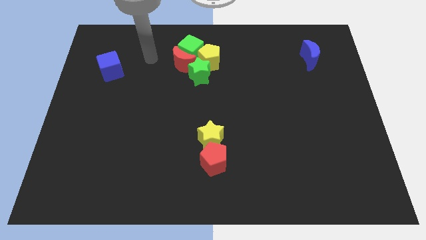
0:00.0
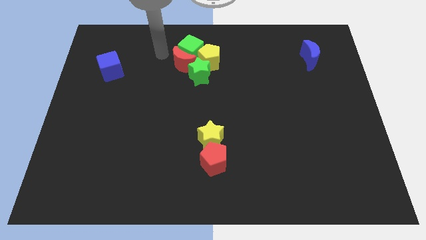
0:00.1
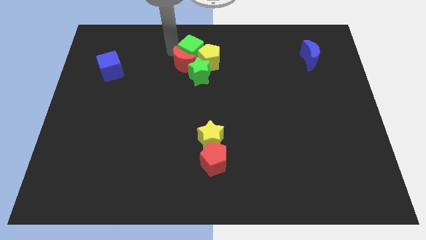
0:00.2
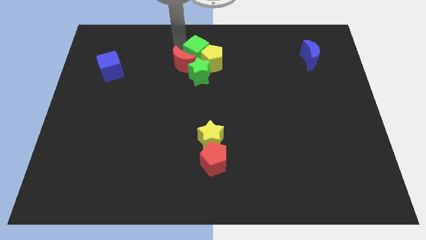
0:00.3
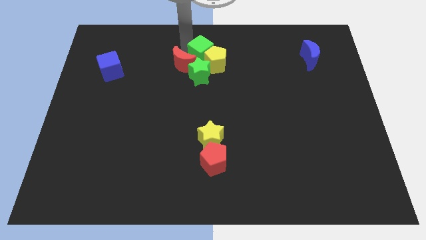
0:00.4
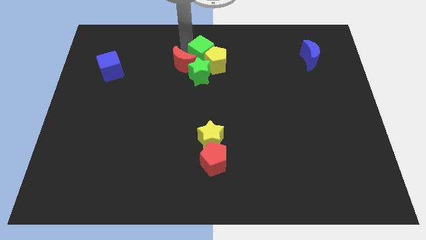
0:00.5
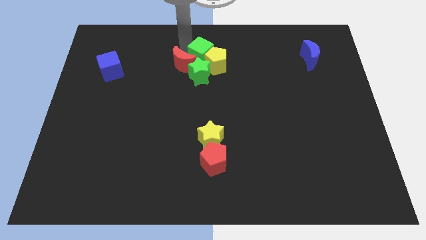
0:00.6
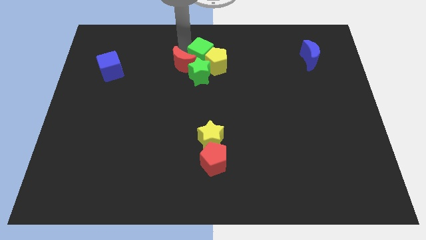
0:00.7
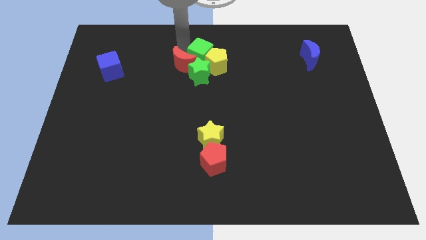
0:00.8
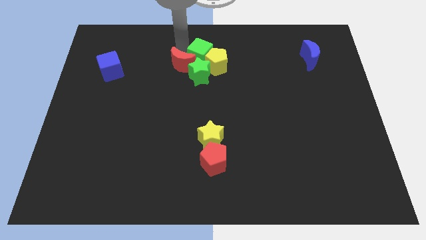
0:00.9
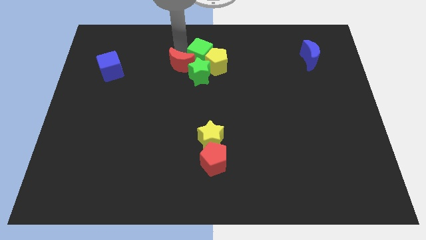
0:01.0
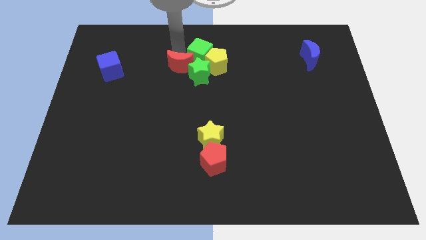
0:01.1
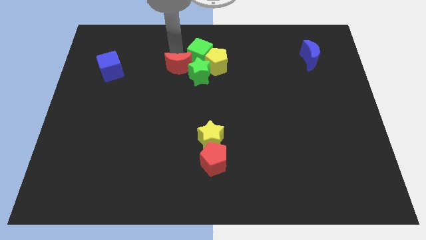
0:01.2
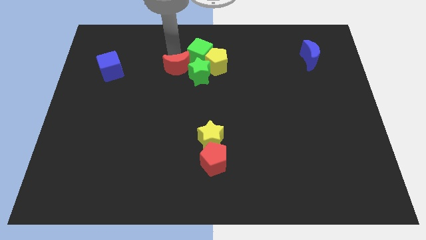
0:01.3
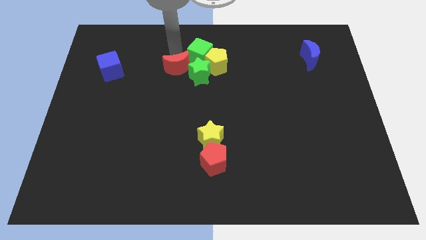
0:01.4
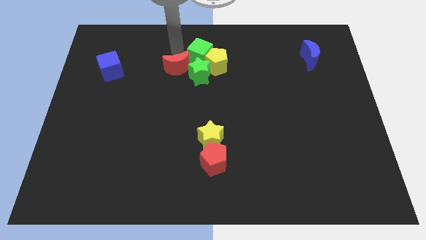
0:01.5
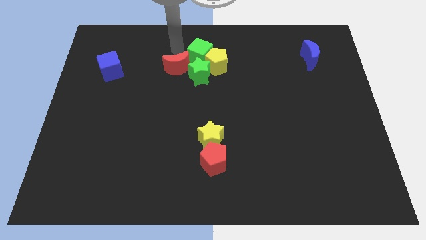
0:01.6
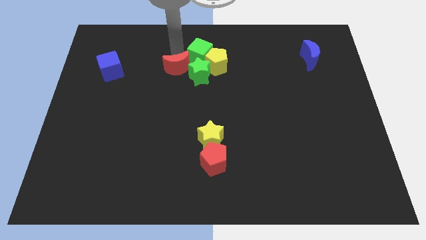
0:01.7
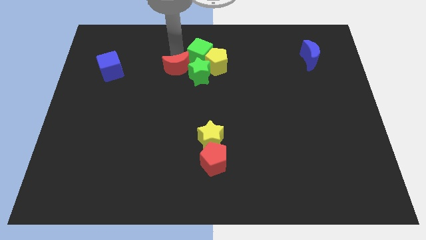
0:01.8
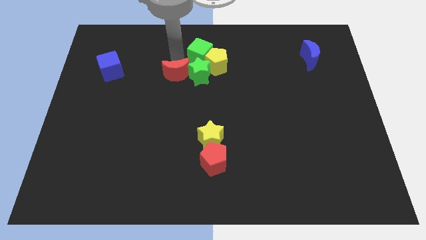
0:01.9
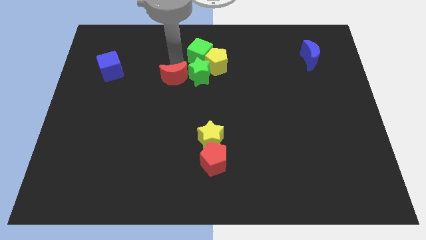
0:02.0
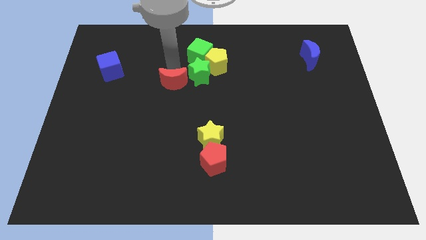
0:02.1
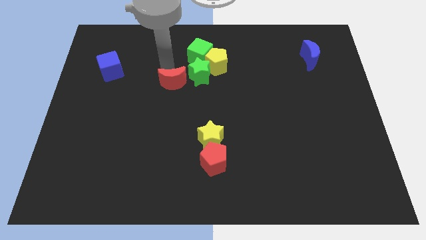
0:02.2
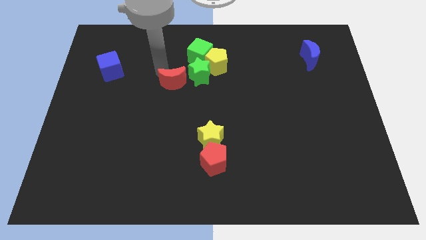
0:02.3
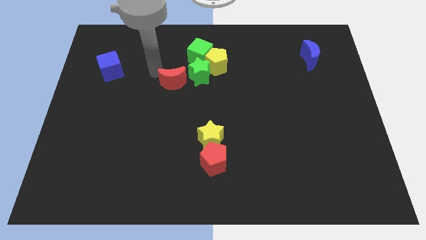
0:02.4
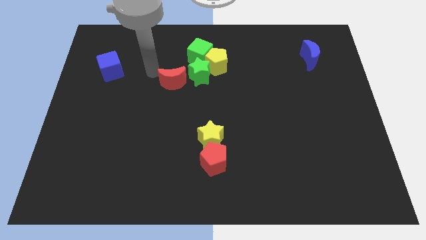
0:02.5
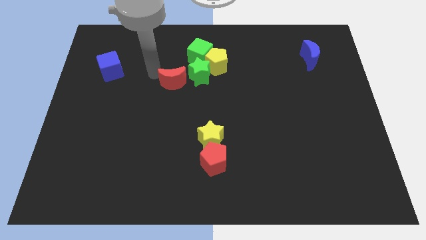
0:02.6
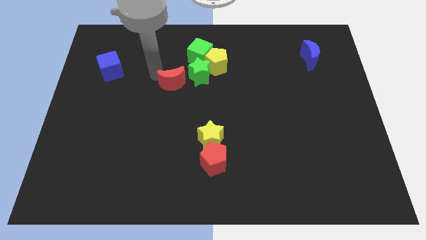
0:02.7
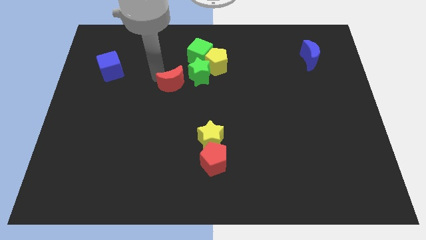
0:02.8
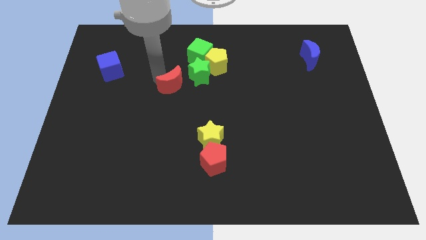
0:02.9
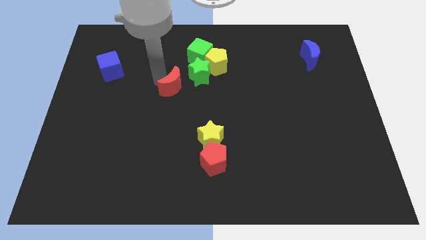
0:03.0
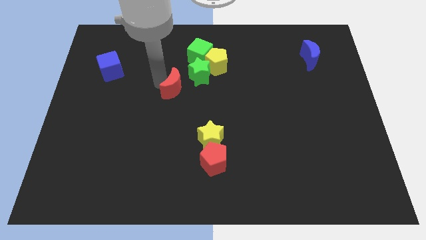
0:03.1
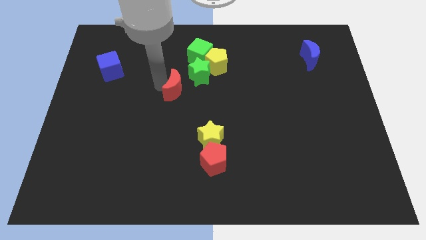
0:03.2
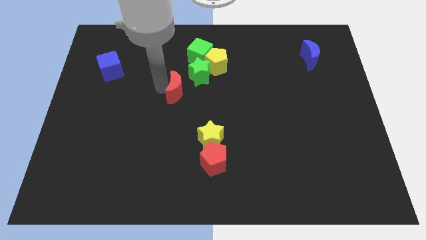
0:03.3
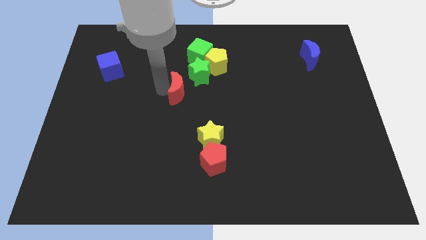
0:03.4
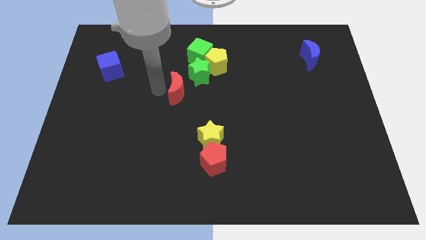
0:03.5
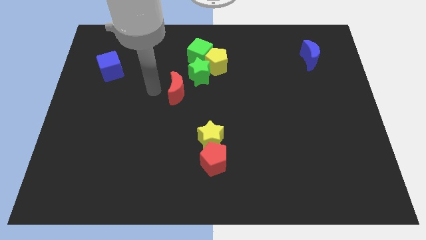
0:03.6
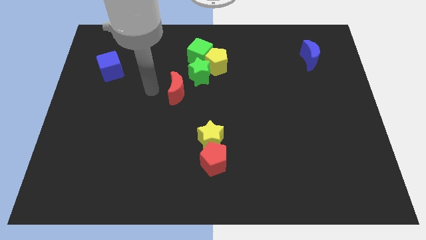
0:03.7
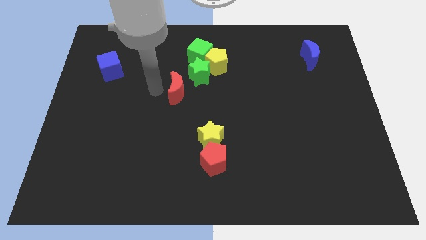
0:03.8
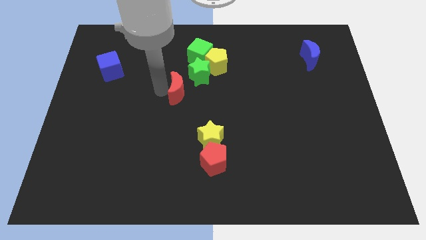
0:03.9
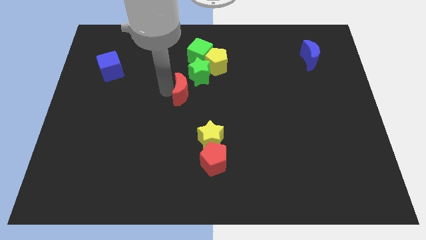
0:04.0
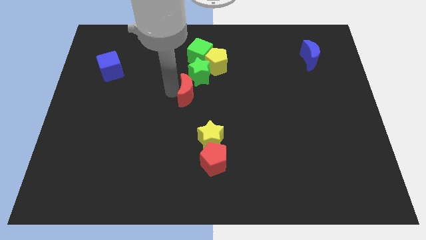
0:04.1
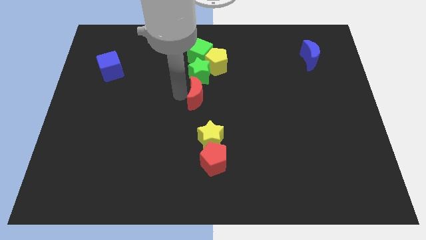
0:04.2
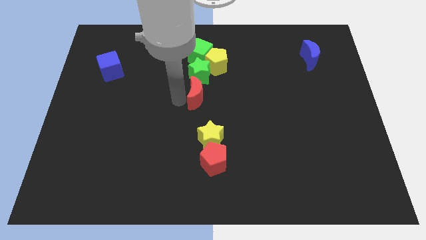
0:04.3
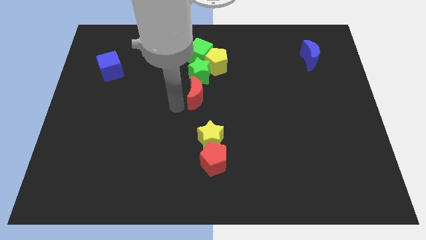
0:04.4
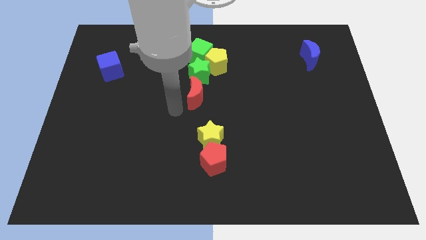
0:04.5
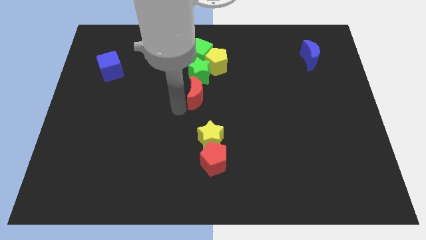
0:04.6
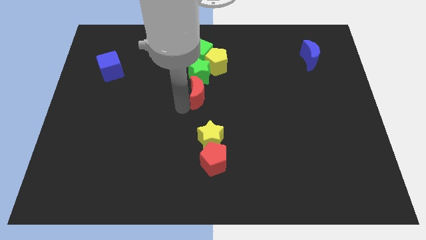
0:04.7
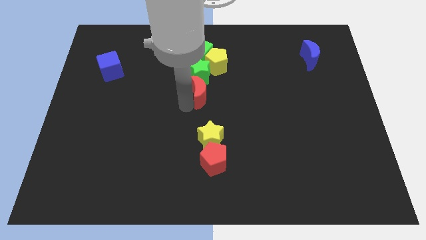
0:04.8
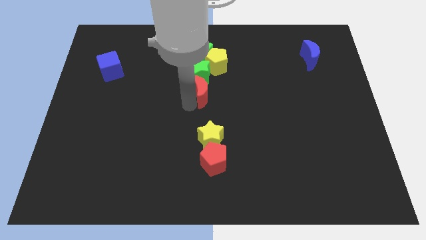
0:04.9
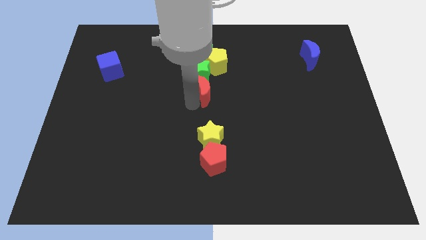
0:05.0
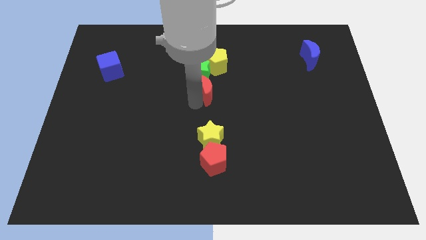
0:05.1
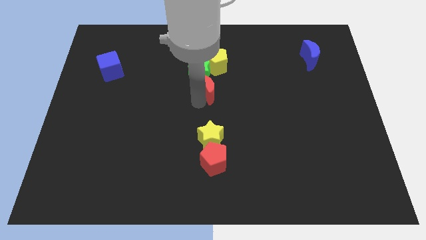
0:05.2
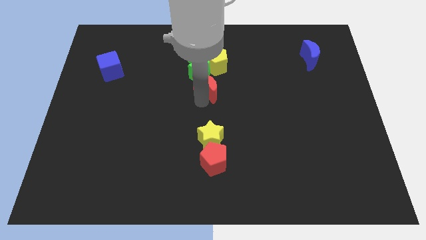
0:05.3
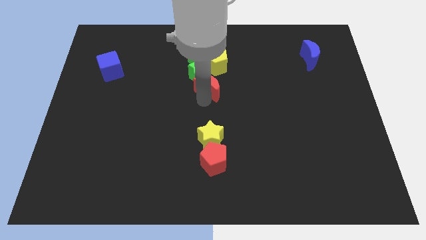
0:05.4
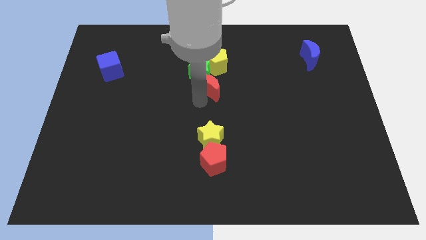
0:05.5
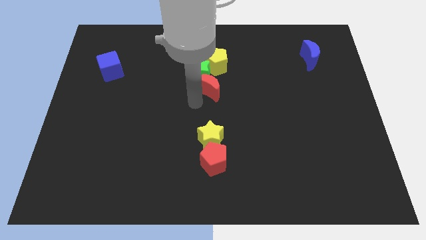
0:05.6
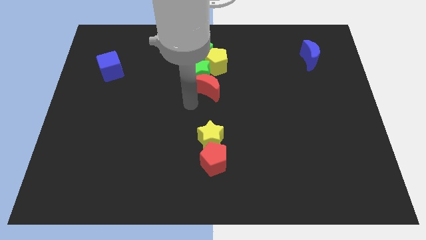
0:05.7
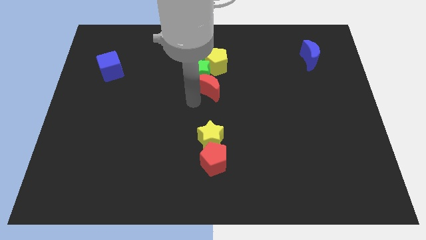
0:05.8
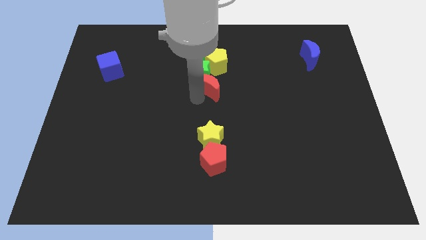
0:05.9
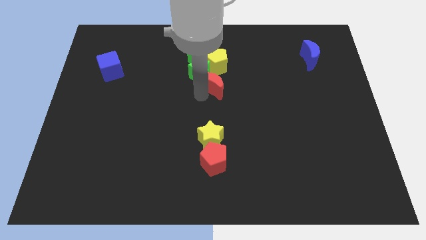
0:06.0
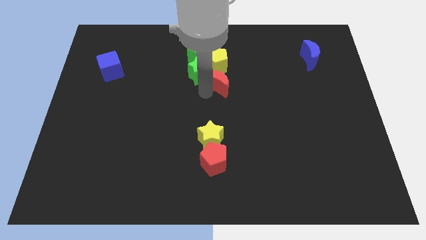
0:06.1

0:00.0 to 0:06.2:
push the red moon right slightly

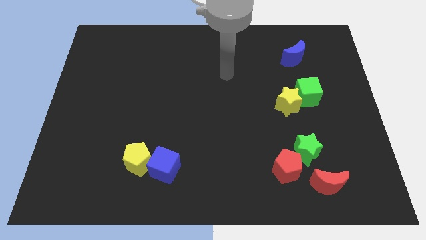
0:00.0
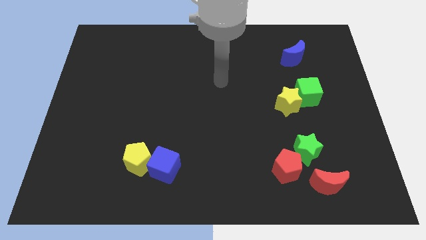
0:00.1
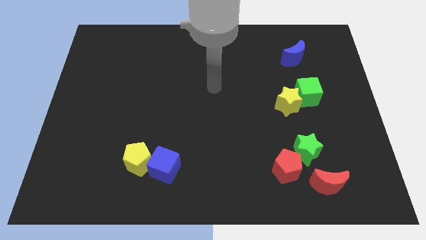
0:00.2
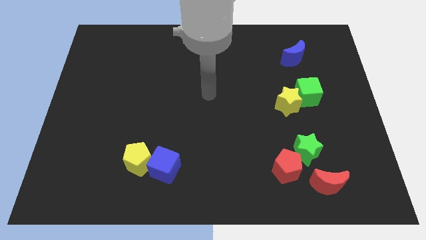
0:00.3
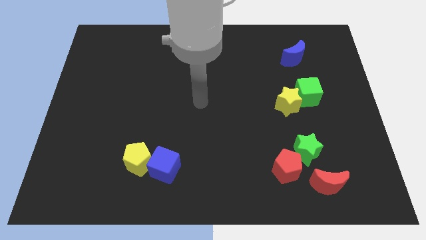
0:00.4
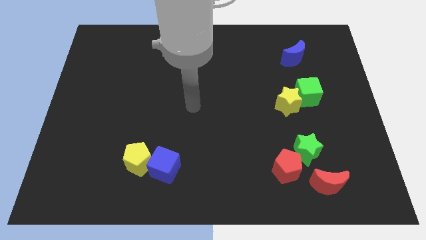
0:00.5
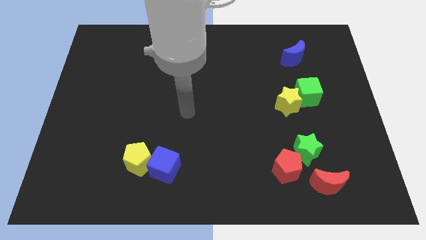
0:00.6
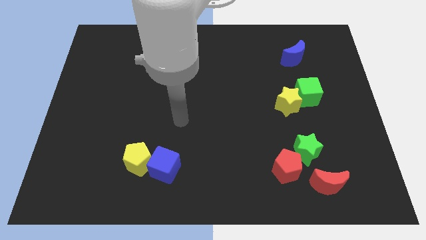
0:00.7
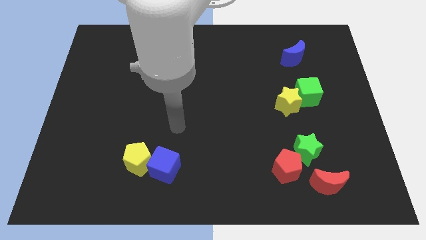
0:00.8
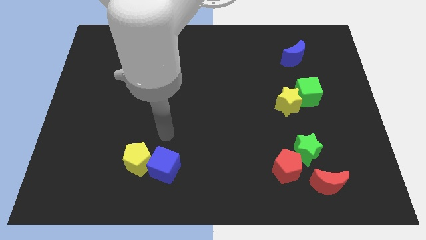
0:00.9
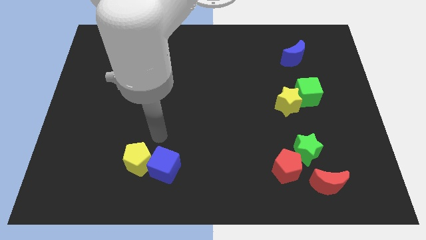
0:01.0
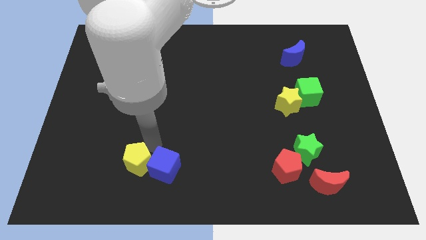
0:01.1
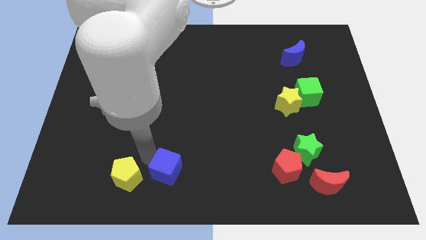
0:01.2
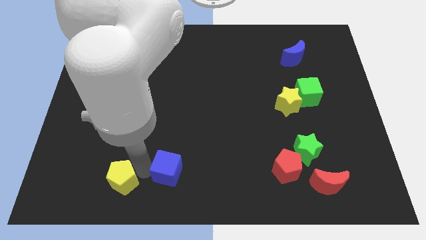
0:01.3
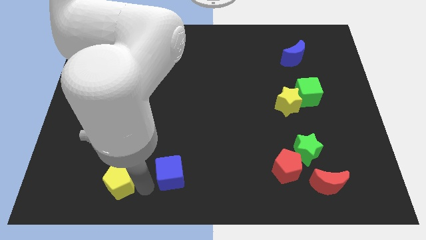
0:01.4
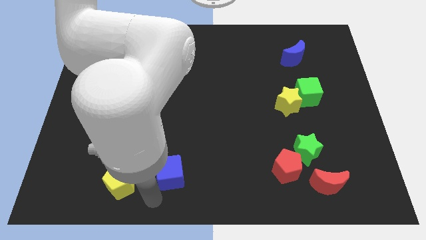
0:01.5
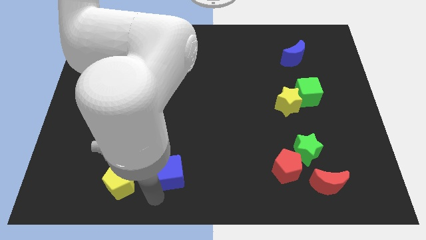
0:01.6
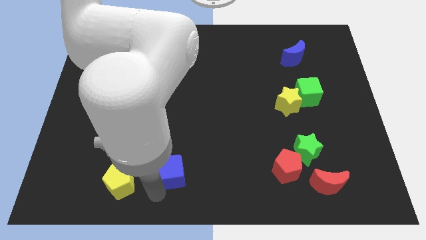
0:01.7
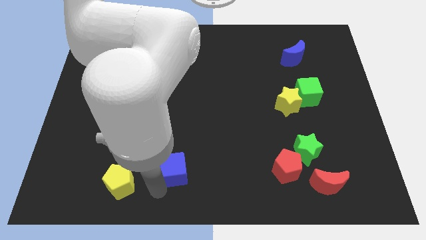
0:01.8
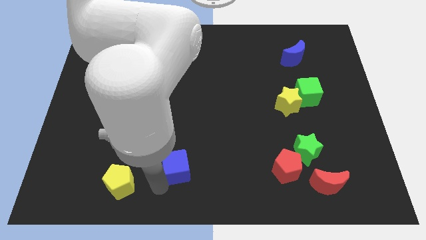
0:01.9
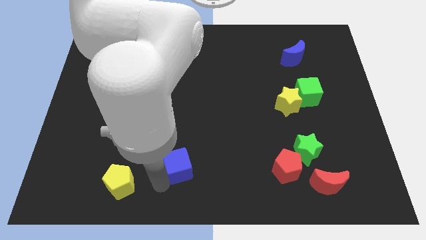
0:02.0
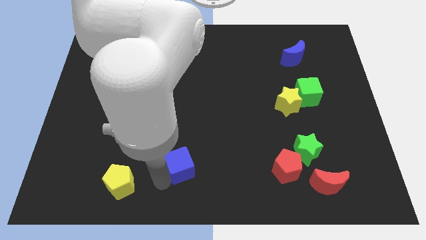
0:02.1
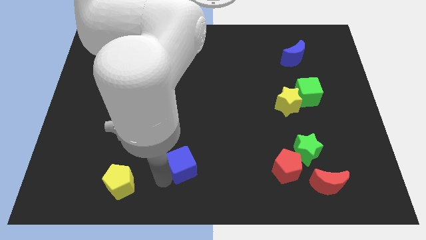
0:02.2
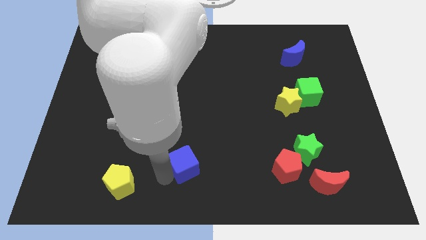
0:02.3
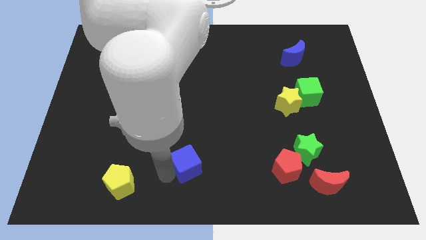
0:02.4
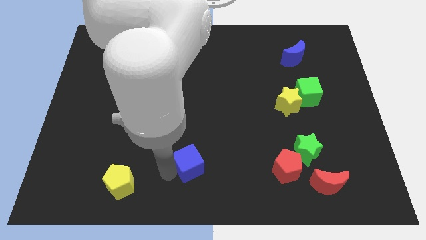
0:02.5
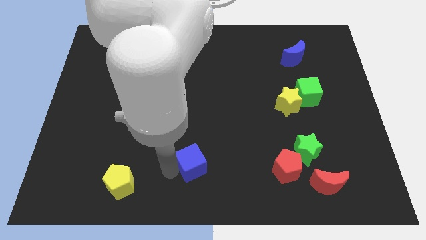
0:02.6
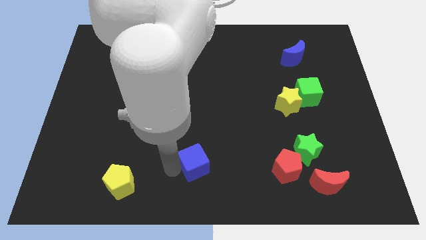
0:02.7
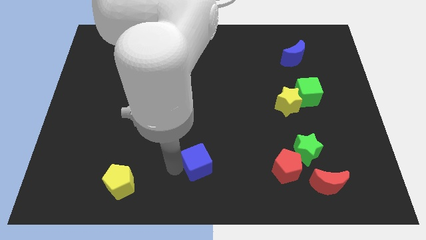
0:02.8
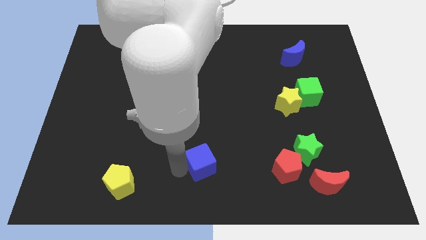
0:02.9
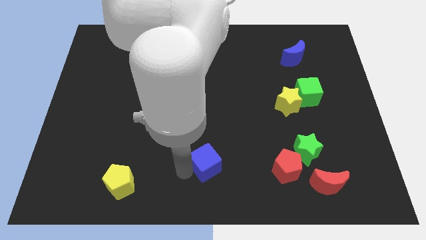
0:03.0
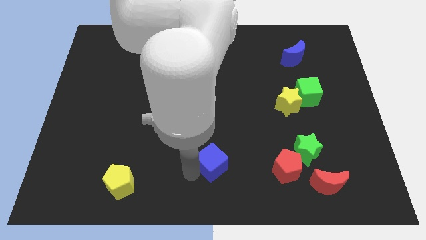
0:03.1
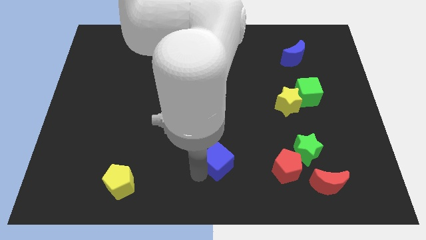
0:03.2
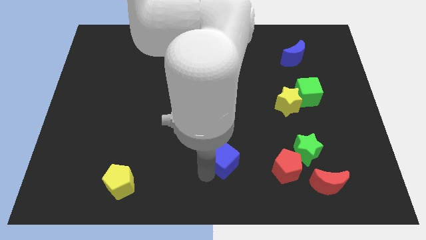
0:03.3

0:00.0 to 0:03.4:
move the blue cube slightly upwards and then right
